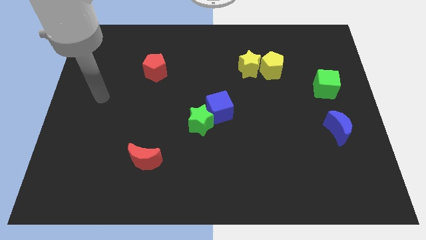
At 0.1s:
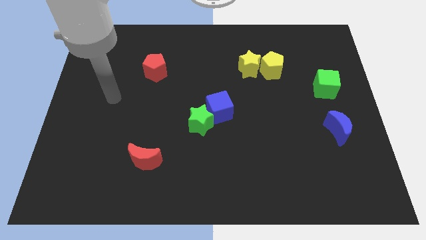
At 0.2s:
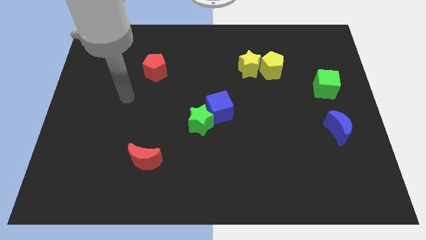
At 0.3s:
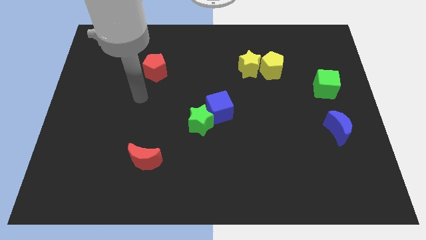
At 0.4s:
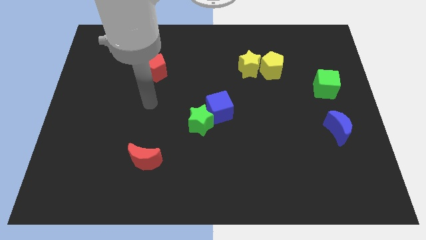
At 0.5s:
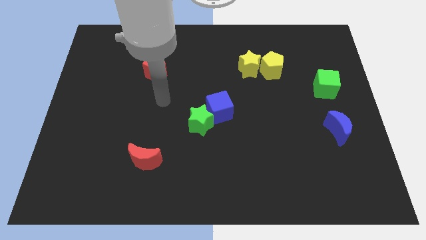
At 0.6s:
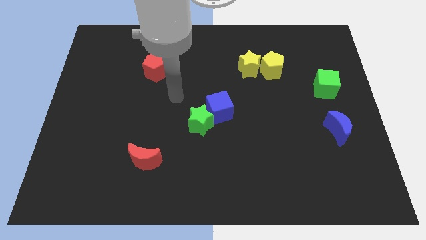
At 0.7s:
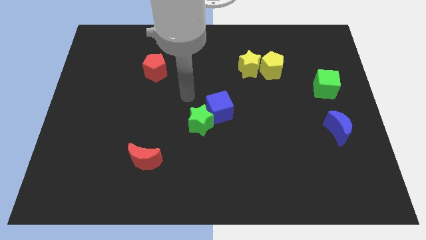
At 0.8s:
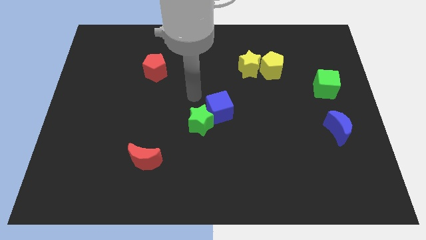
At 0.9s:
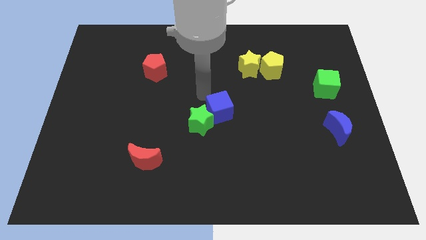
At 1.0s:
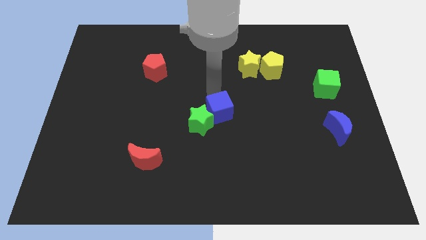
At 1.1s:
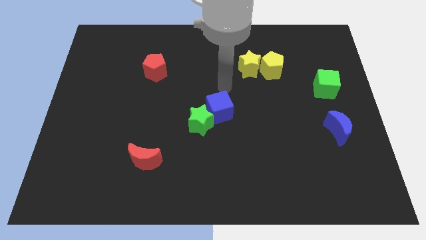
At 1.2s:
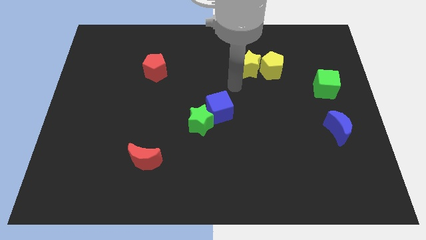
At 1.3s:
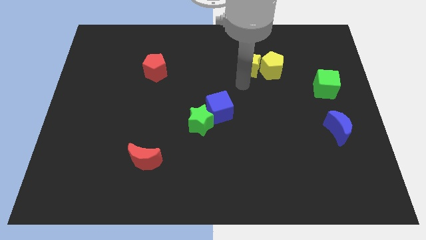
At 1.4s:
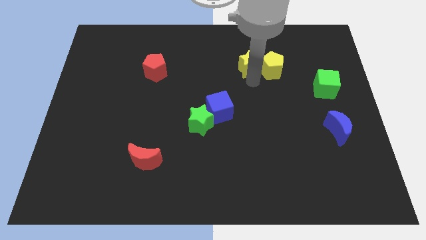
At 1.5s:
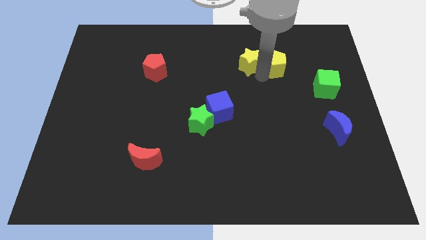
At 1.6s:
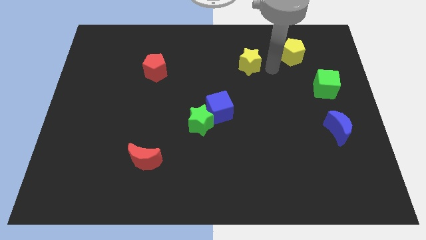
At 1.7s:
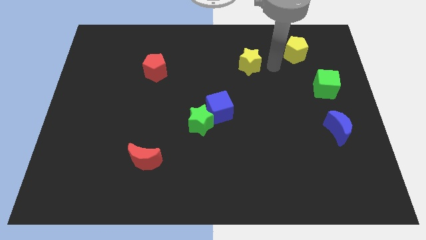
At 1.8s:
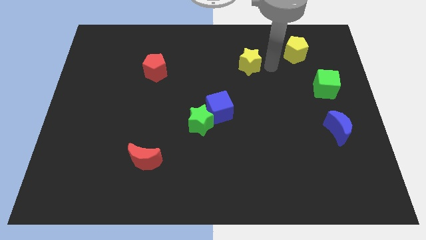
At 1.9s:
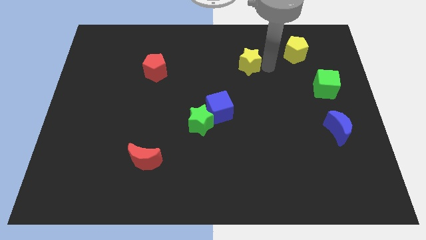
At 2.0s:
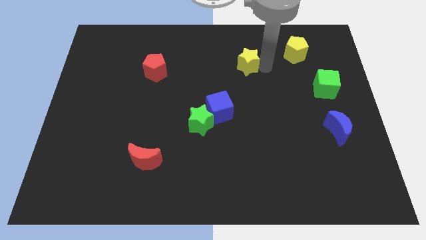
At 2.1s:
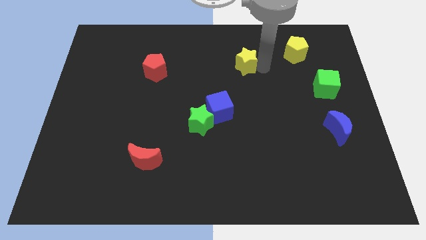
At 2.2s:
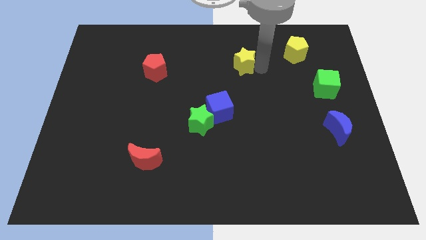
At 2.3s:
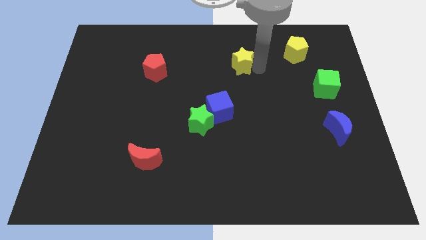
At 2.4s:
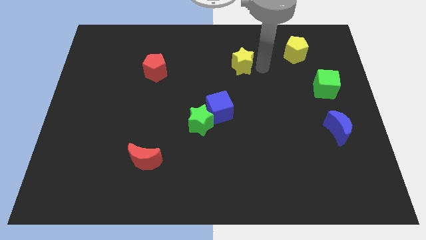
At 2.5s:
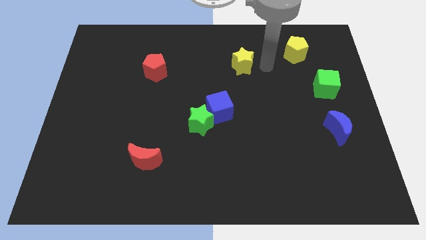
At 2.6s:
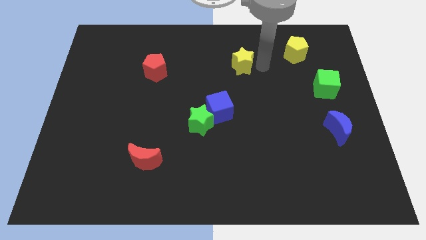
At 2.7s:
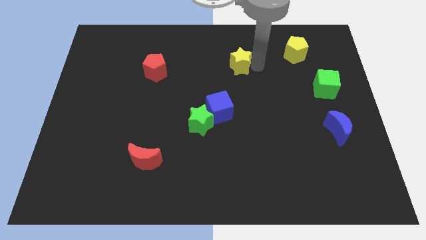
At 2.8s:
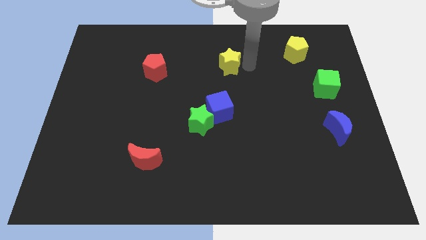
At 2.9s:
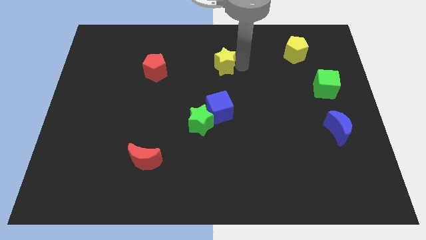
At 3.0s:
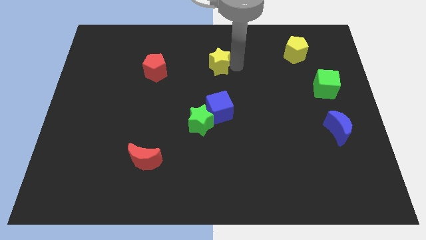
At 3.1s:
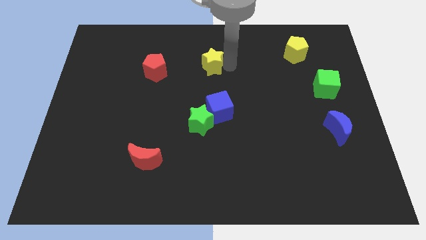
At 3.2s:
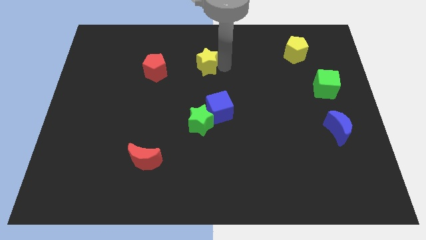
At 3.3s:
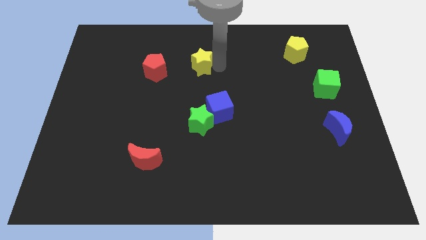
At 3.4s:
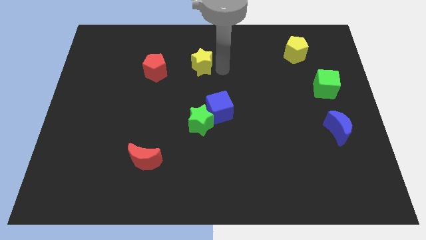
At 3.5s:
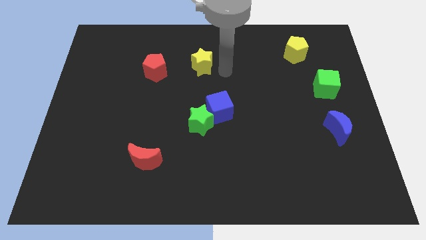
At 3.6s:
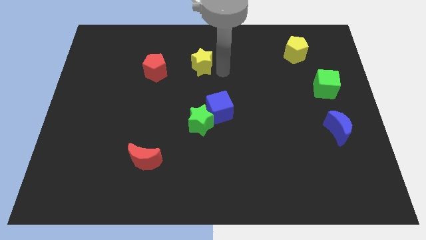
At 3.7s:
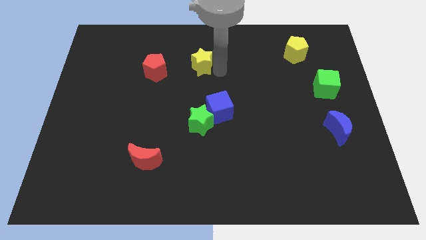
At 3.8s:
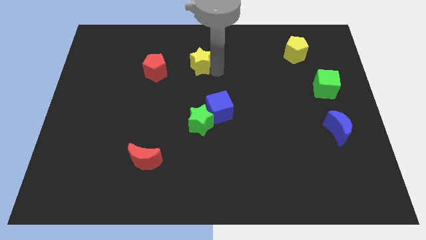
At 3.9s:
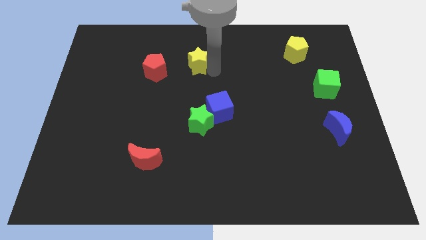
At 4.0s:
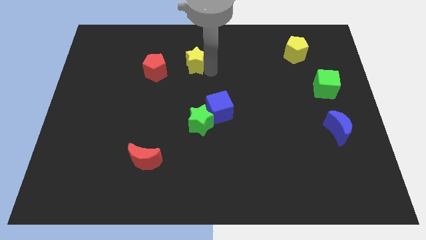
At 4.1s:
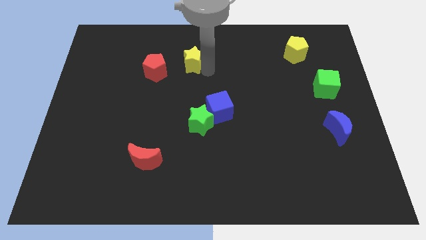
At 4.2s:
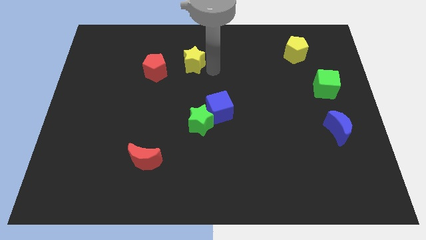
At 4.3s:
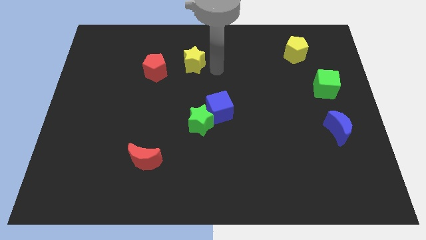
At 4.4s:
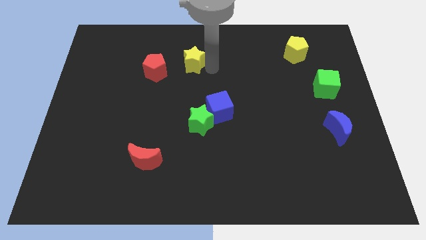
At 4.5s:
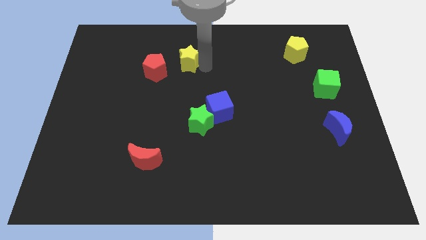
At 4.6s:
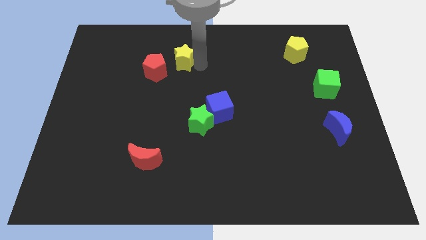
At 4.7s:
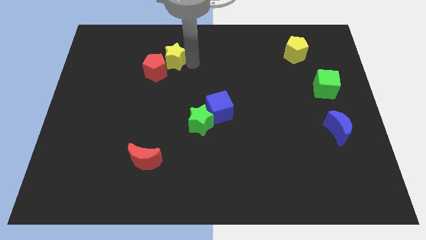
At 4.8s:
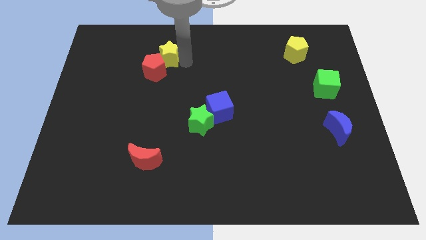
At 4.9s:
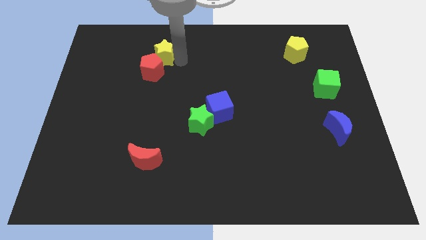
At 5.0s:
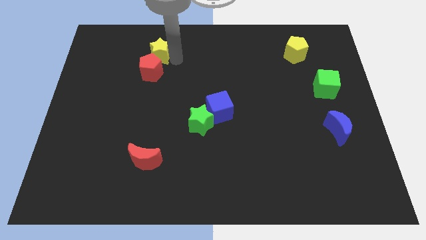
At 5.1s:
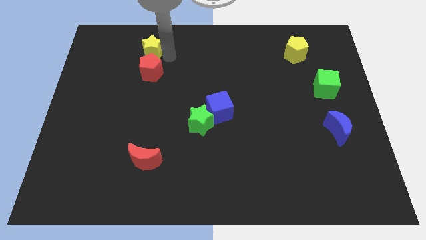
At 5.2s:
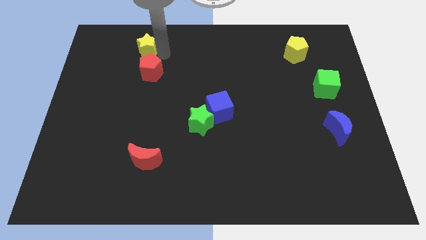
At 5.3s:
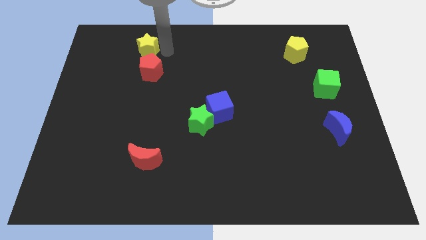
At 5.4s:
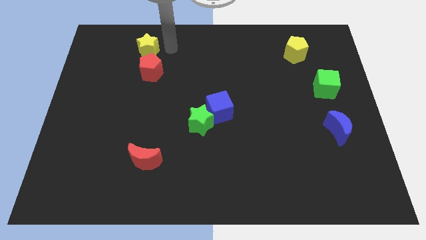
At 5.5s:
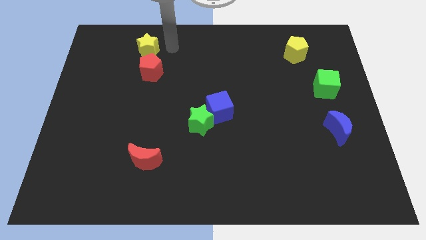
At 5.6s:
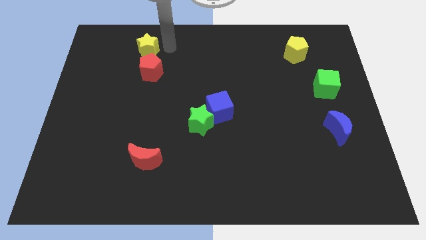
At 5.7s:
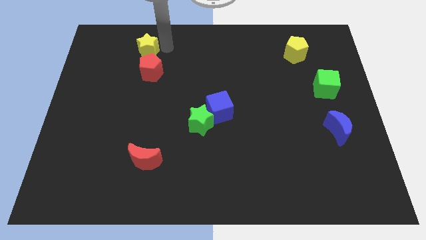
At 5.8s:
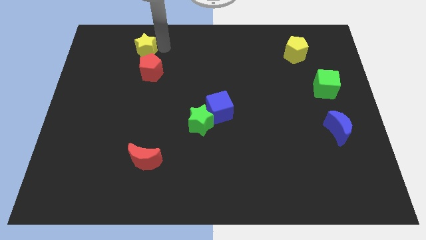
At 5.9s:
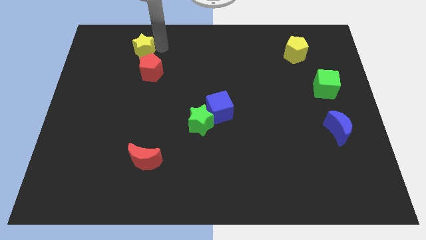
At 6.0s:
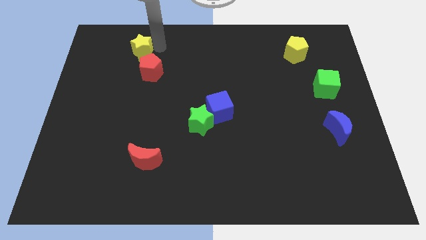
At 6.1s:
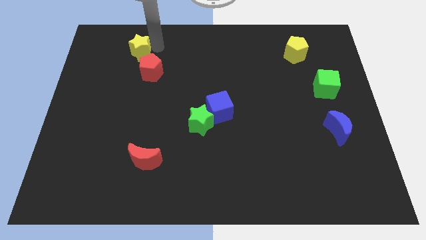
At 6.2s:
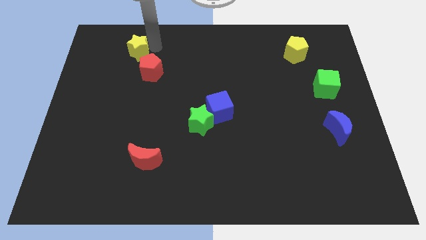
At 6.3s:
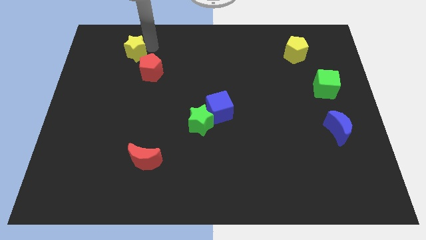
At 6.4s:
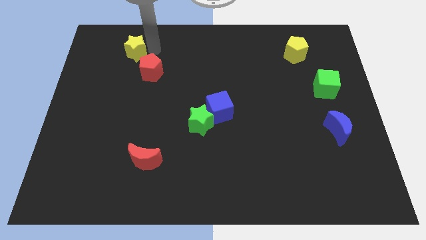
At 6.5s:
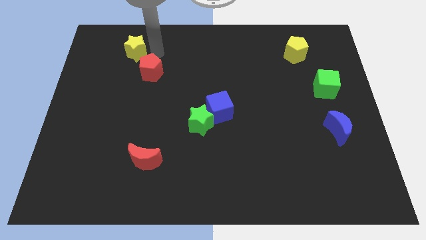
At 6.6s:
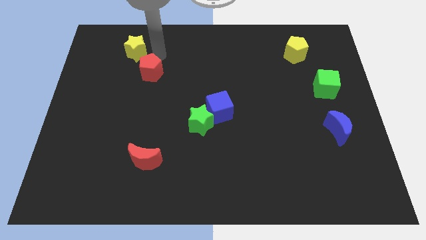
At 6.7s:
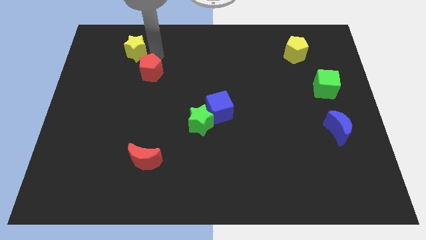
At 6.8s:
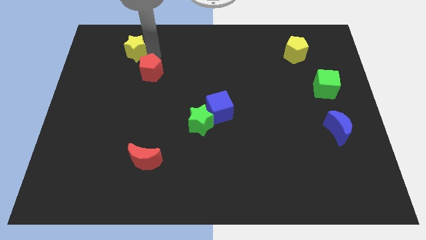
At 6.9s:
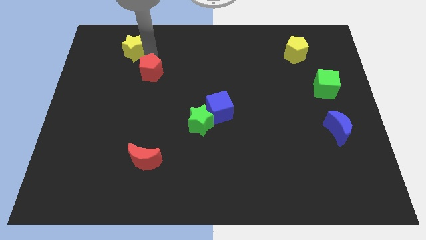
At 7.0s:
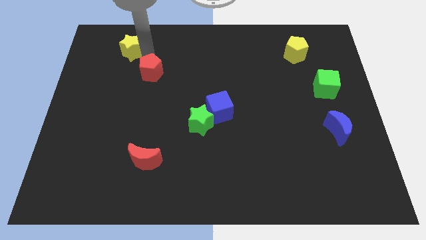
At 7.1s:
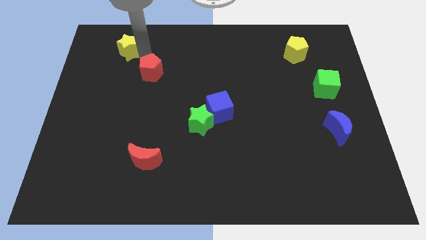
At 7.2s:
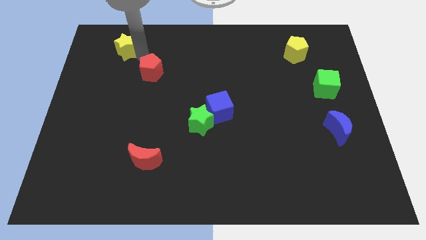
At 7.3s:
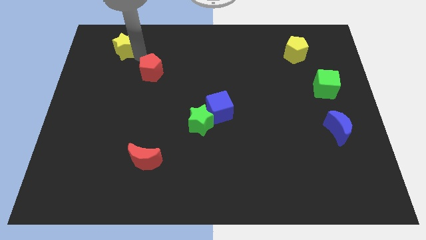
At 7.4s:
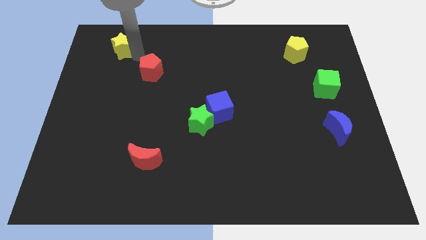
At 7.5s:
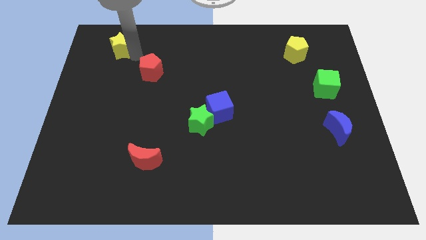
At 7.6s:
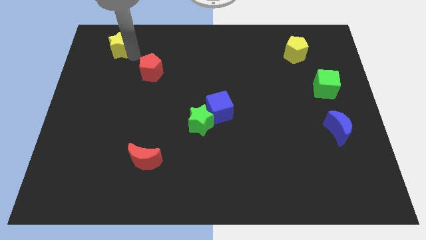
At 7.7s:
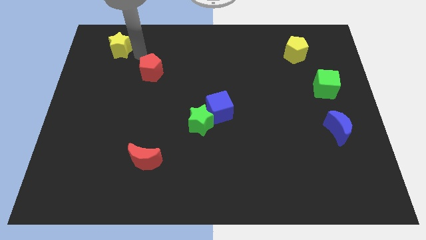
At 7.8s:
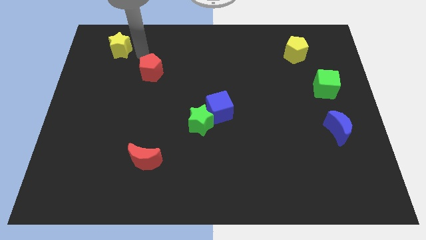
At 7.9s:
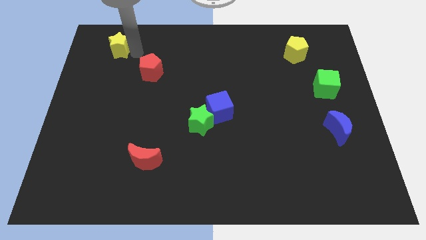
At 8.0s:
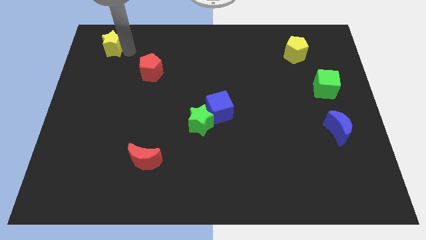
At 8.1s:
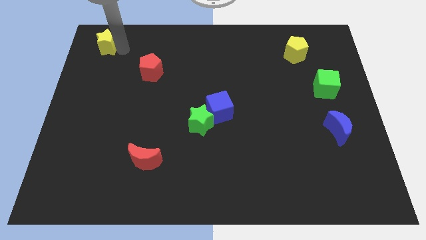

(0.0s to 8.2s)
move the yellow star to the upper left corner
